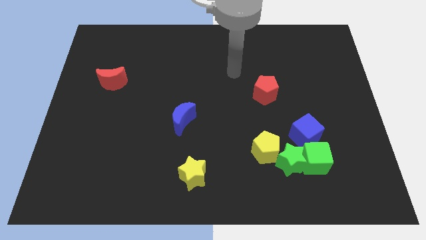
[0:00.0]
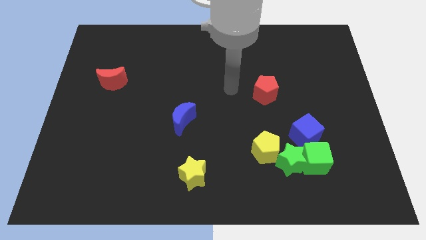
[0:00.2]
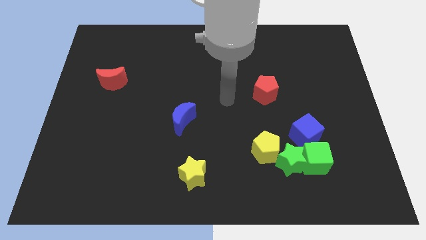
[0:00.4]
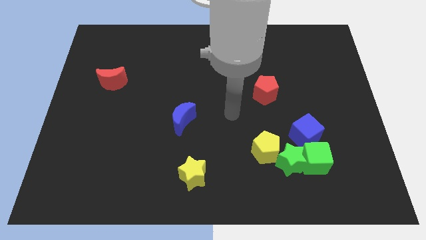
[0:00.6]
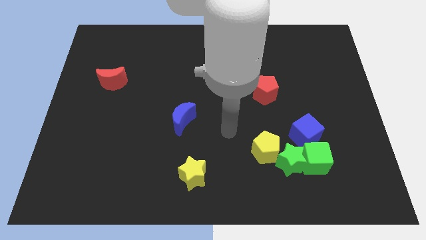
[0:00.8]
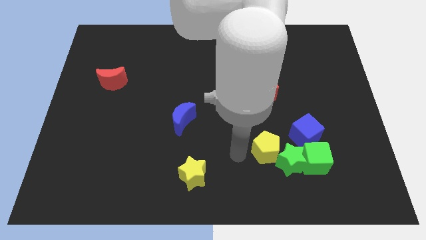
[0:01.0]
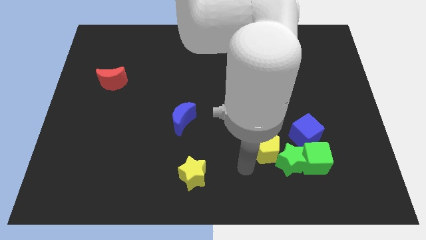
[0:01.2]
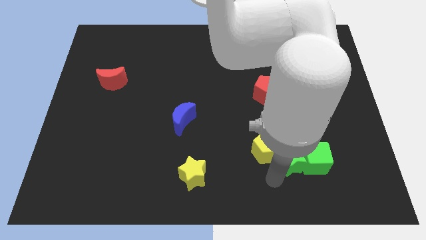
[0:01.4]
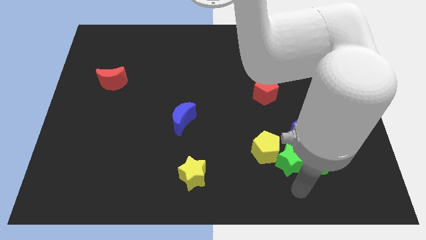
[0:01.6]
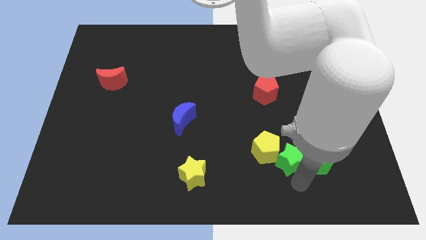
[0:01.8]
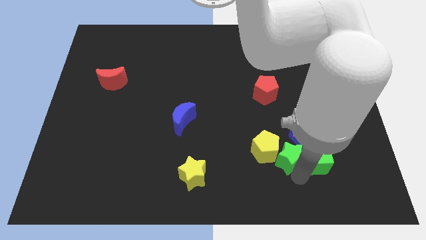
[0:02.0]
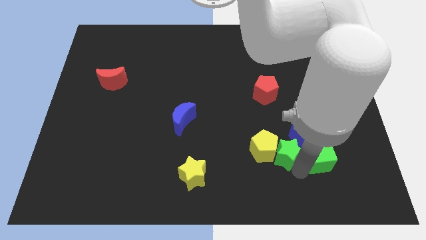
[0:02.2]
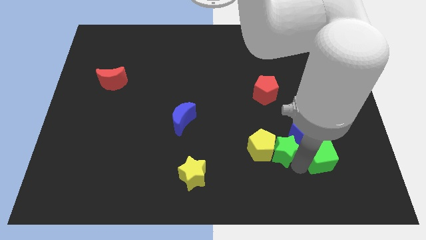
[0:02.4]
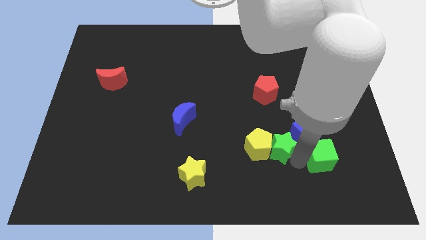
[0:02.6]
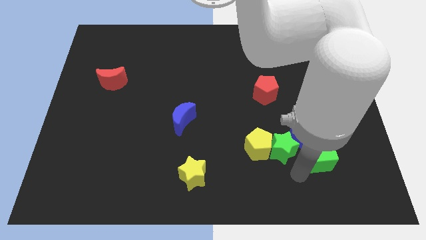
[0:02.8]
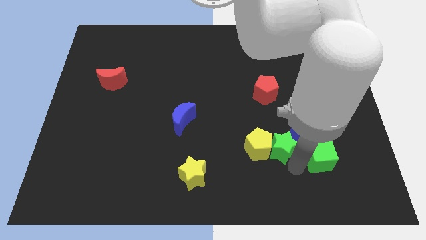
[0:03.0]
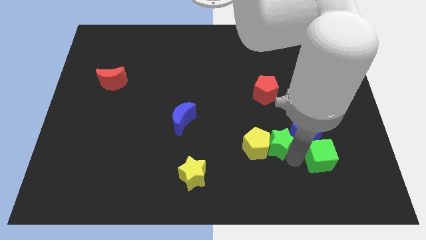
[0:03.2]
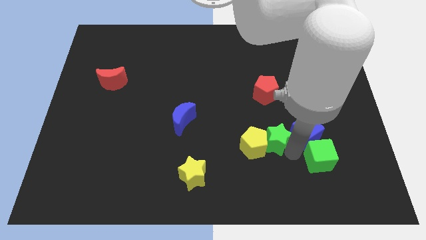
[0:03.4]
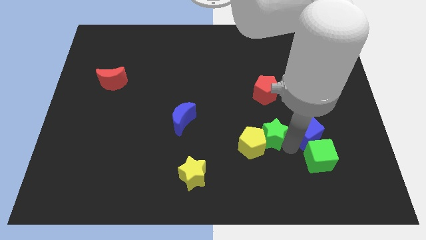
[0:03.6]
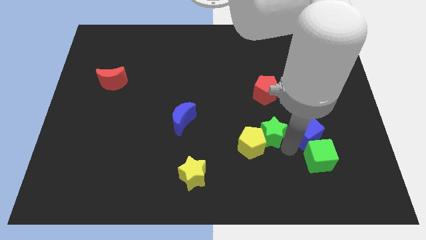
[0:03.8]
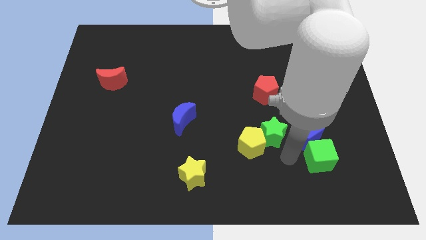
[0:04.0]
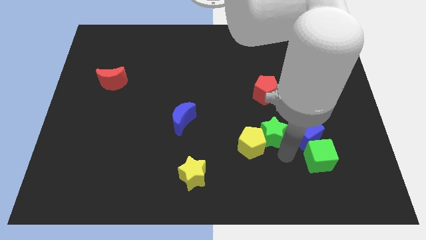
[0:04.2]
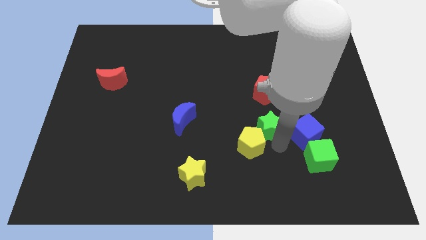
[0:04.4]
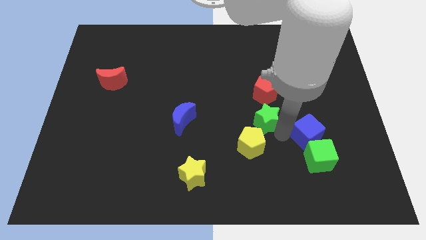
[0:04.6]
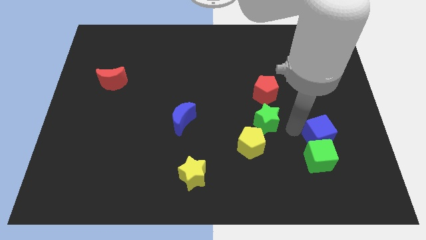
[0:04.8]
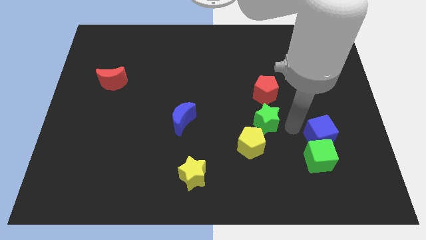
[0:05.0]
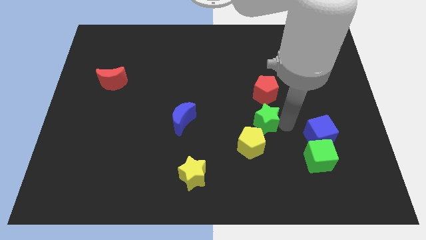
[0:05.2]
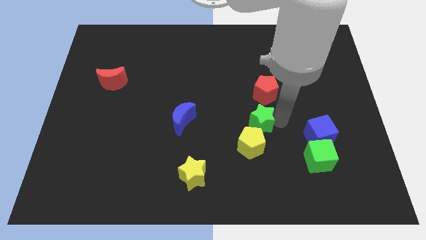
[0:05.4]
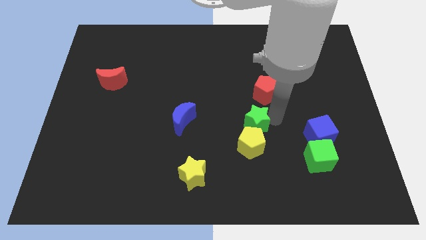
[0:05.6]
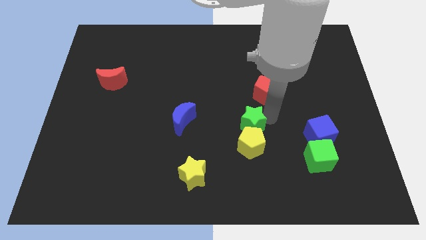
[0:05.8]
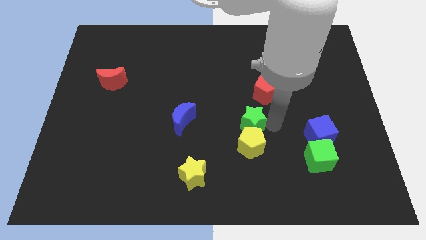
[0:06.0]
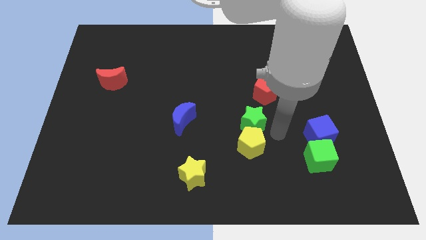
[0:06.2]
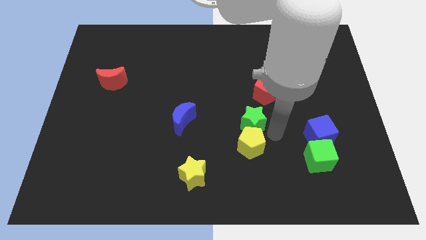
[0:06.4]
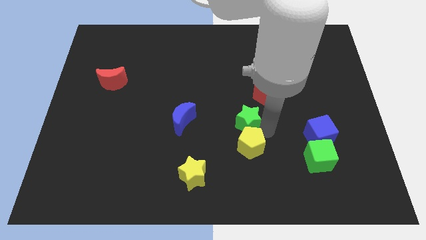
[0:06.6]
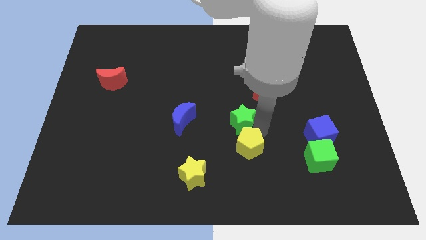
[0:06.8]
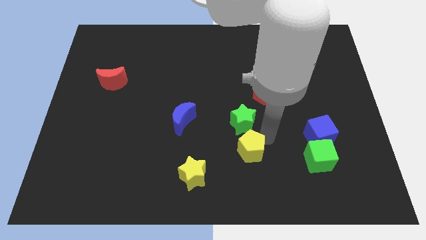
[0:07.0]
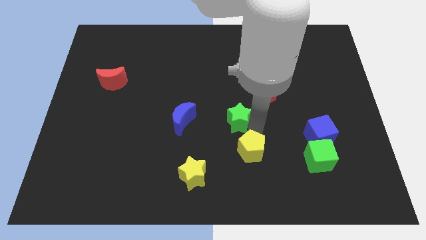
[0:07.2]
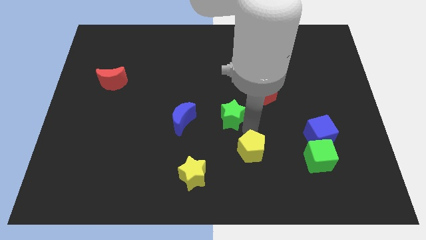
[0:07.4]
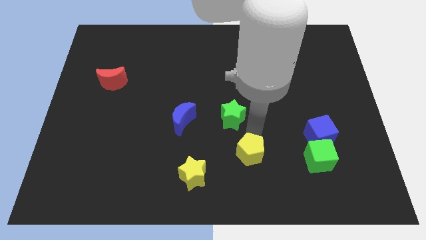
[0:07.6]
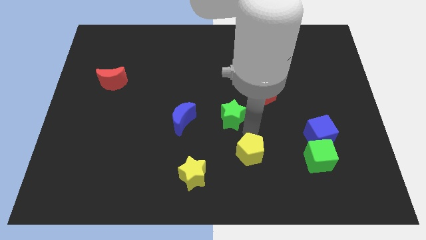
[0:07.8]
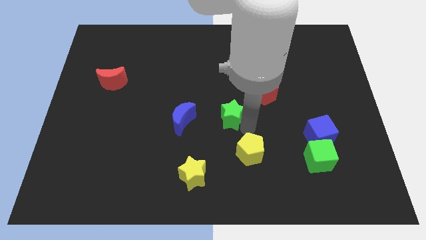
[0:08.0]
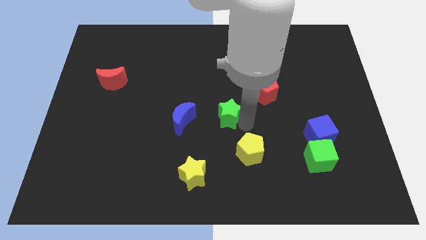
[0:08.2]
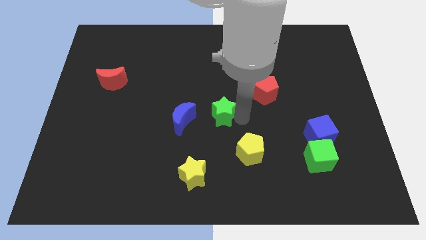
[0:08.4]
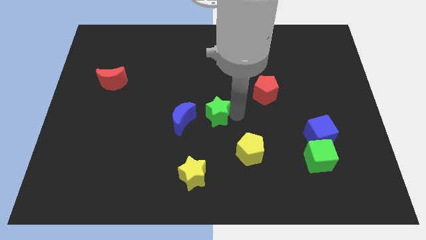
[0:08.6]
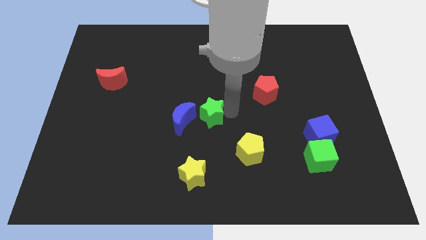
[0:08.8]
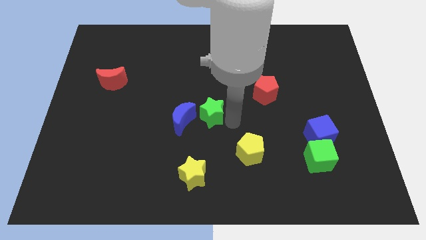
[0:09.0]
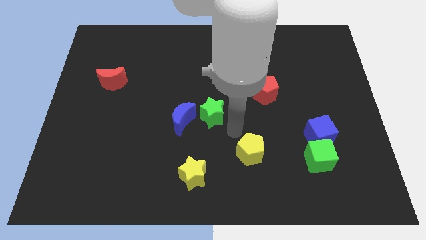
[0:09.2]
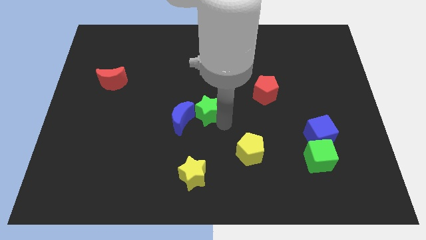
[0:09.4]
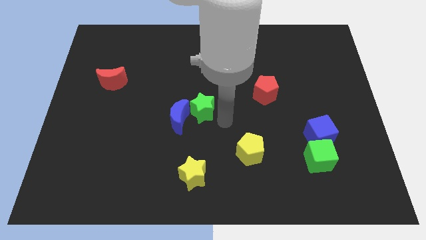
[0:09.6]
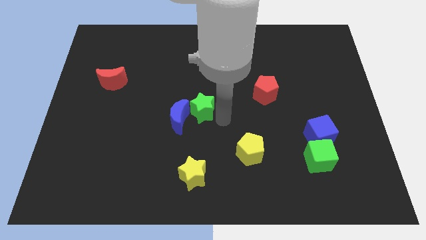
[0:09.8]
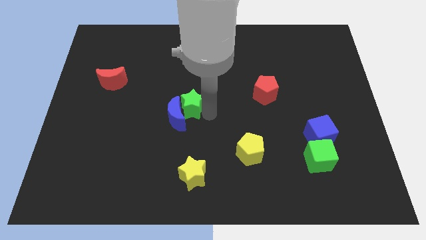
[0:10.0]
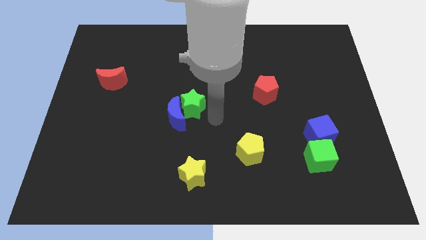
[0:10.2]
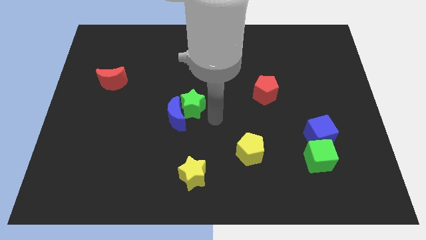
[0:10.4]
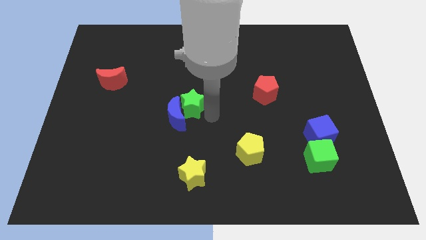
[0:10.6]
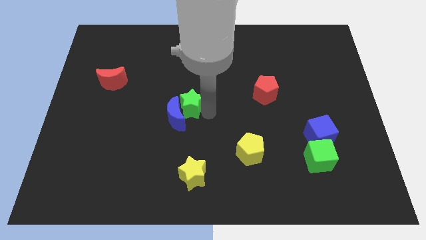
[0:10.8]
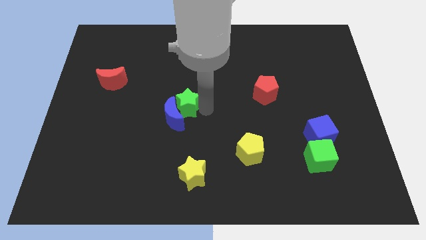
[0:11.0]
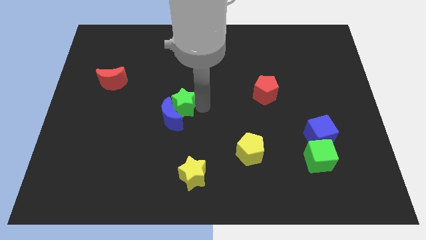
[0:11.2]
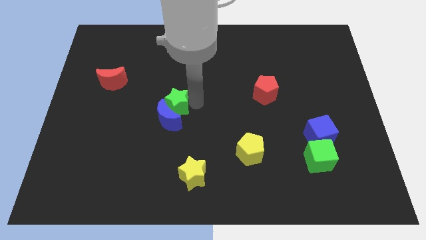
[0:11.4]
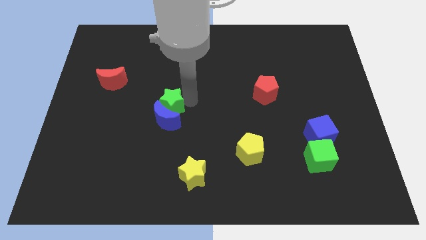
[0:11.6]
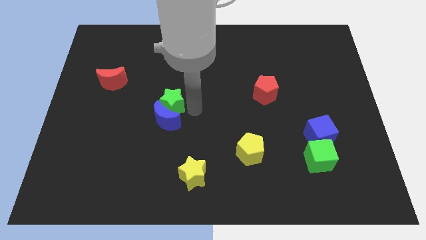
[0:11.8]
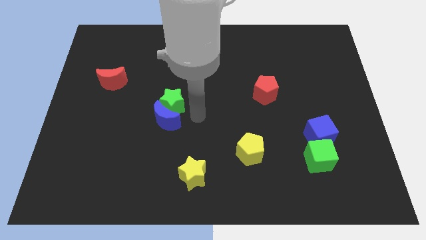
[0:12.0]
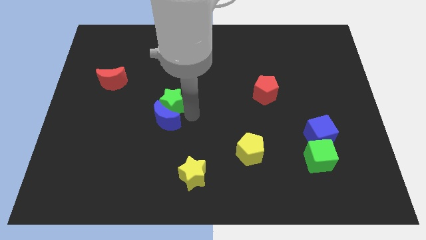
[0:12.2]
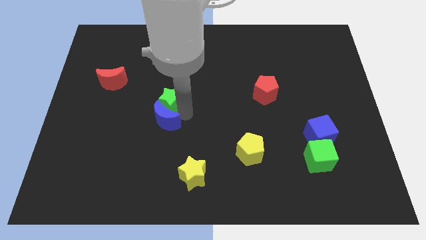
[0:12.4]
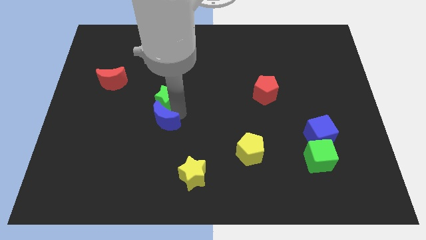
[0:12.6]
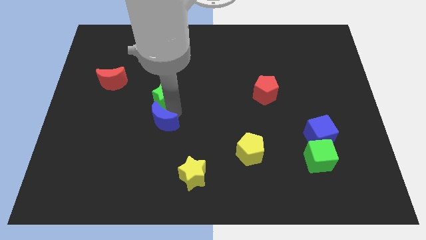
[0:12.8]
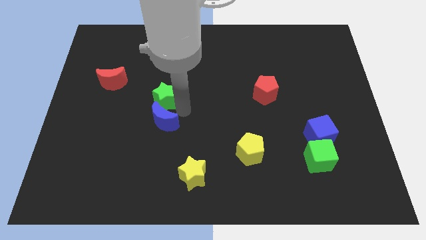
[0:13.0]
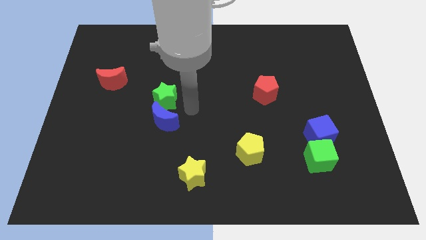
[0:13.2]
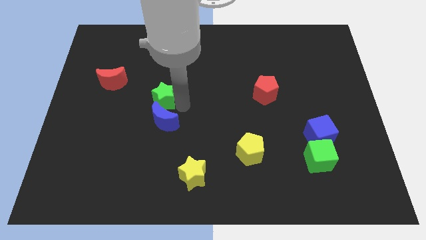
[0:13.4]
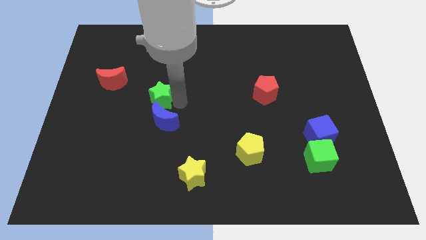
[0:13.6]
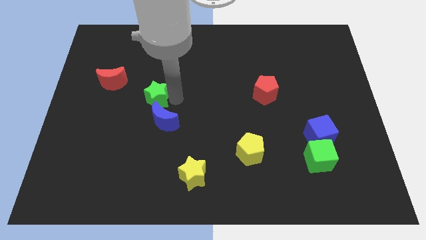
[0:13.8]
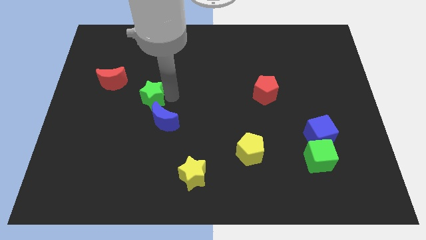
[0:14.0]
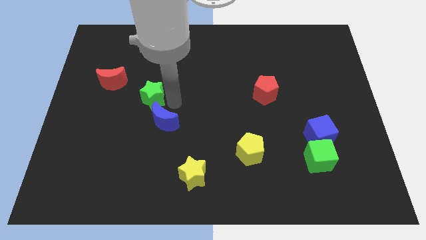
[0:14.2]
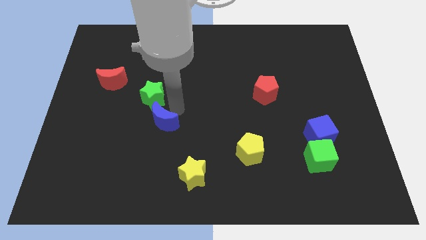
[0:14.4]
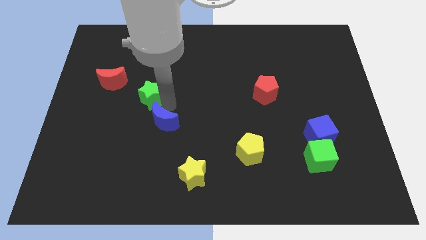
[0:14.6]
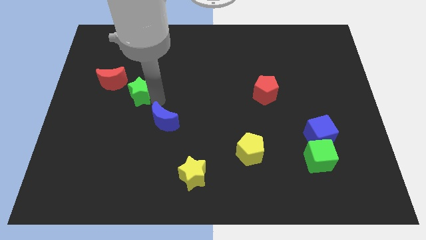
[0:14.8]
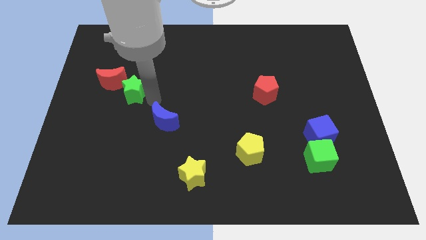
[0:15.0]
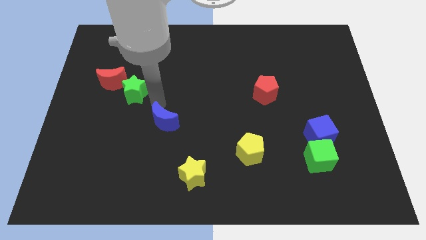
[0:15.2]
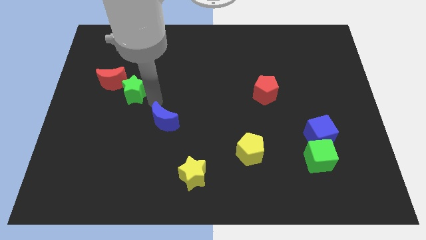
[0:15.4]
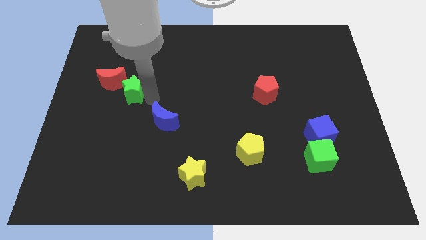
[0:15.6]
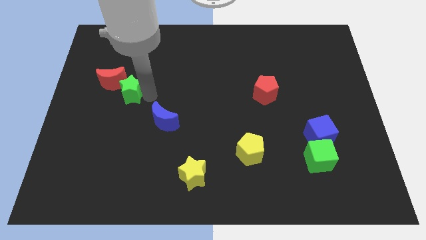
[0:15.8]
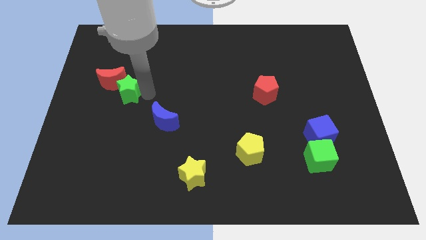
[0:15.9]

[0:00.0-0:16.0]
push the green star to the red moon

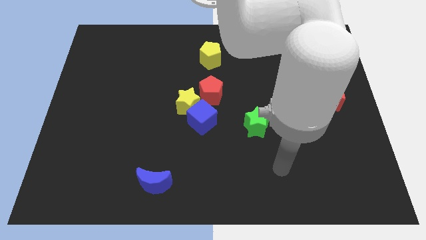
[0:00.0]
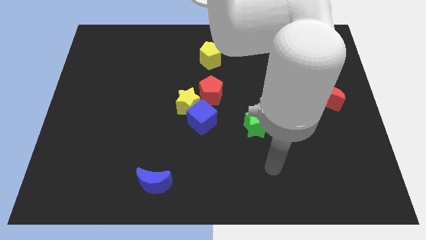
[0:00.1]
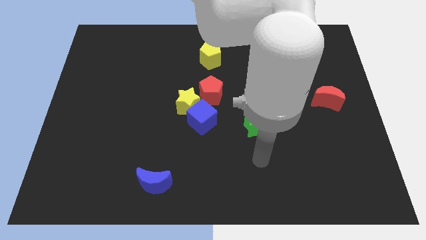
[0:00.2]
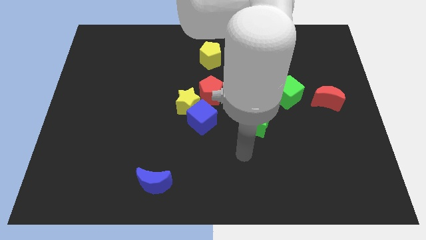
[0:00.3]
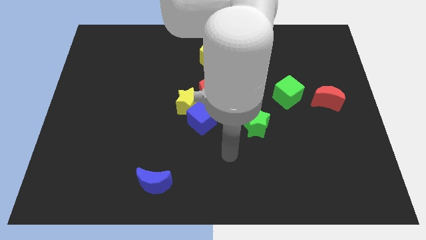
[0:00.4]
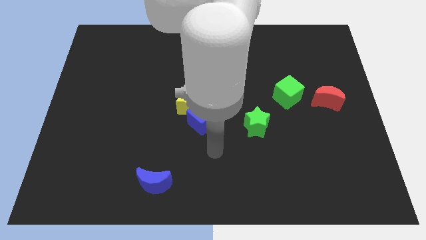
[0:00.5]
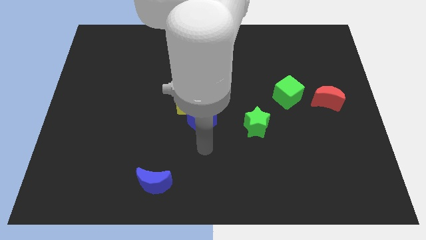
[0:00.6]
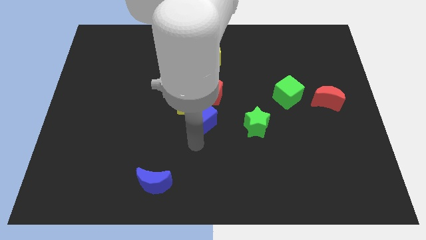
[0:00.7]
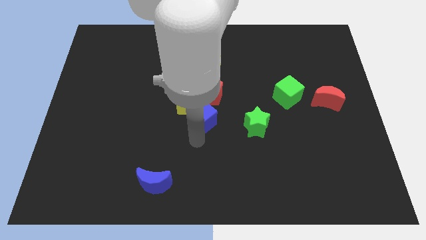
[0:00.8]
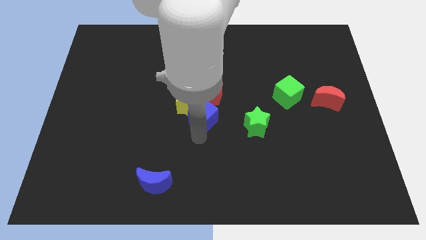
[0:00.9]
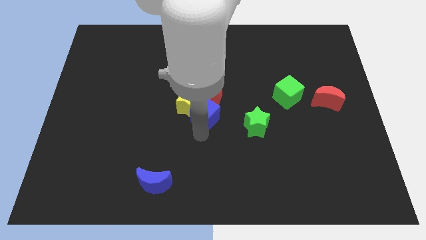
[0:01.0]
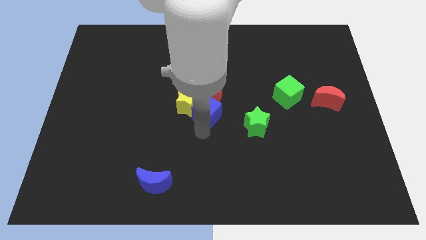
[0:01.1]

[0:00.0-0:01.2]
put the blue cube towards the red pentagon
